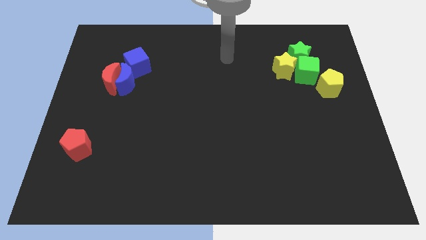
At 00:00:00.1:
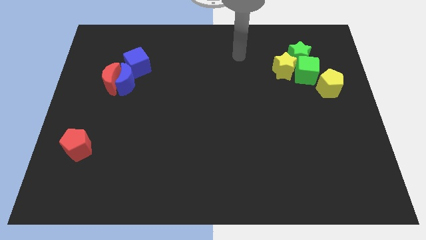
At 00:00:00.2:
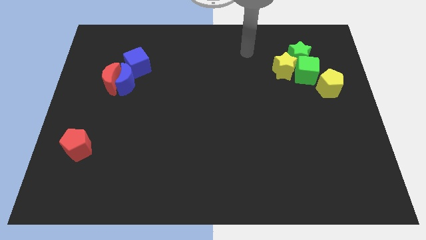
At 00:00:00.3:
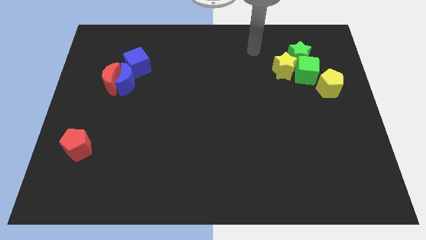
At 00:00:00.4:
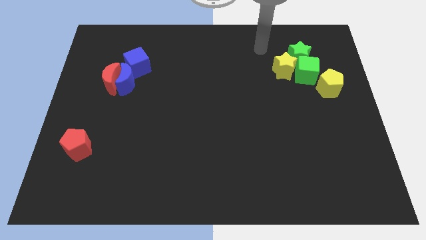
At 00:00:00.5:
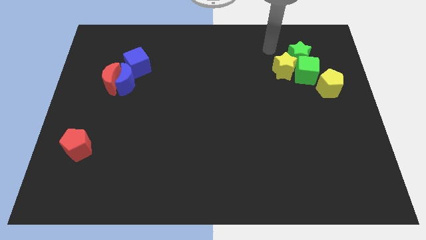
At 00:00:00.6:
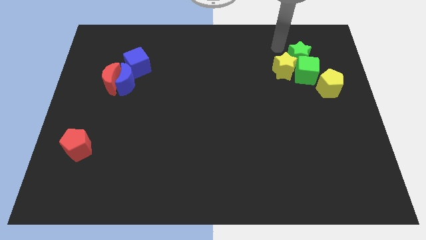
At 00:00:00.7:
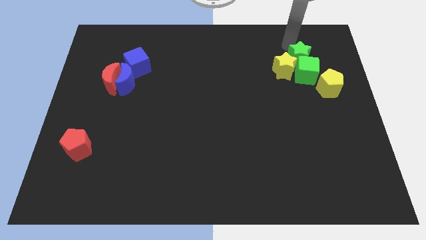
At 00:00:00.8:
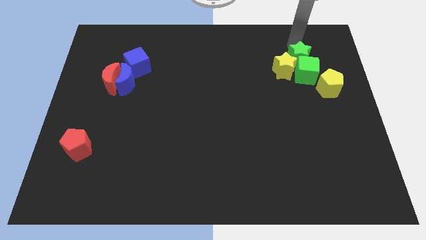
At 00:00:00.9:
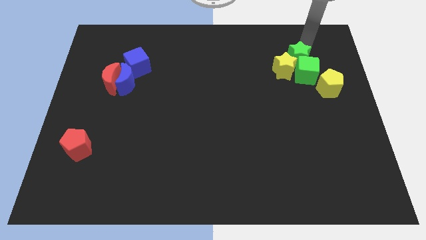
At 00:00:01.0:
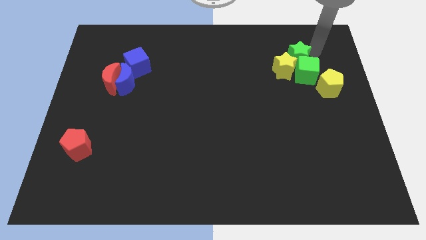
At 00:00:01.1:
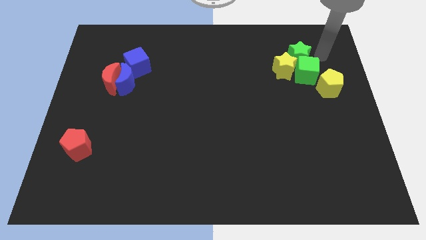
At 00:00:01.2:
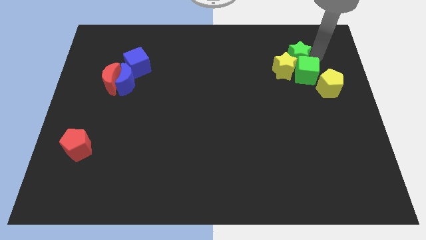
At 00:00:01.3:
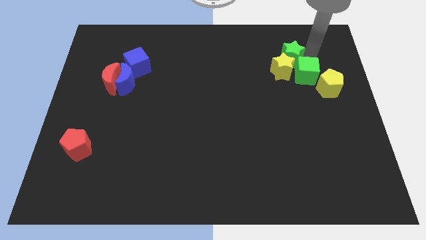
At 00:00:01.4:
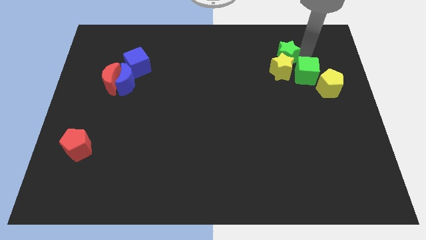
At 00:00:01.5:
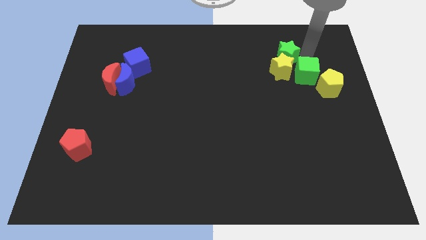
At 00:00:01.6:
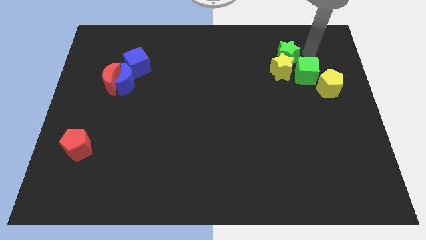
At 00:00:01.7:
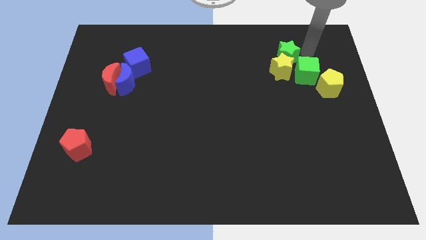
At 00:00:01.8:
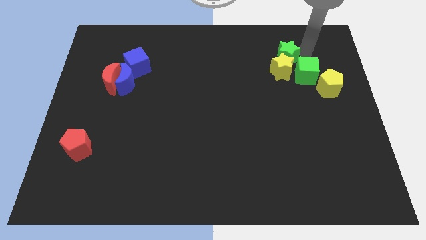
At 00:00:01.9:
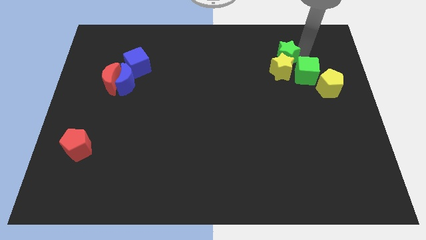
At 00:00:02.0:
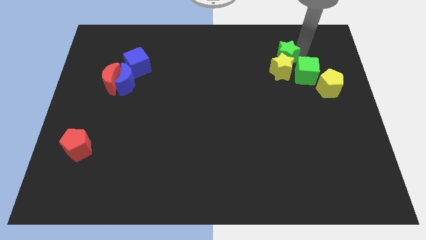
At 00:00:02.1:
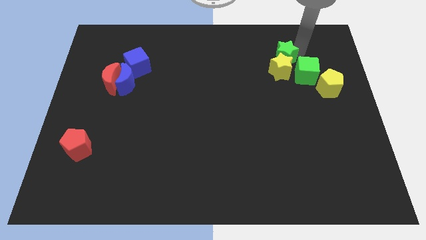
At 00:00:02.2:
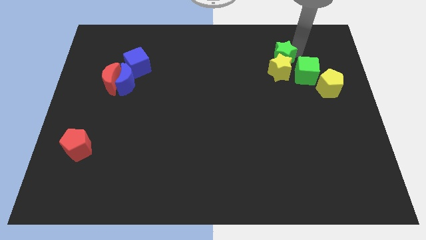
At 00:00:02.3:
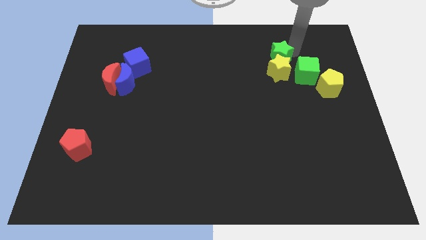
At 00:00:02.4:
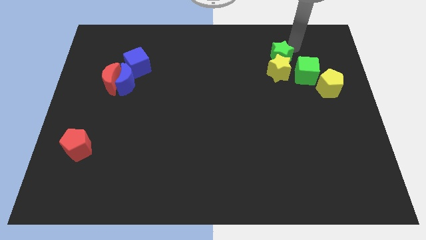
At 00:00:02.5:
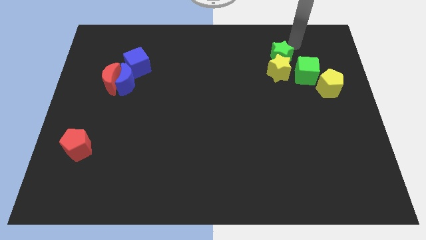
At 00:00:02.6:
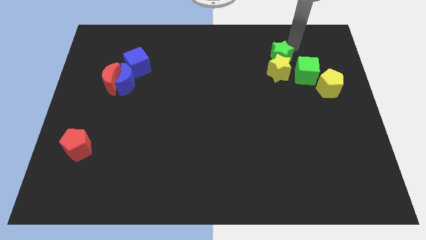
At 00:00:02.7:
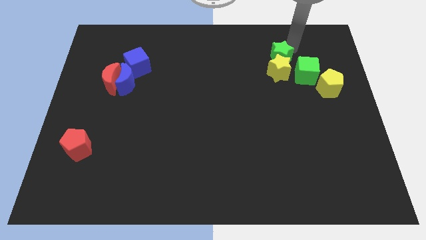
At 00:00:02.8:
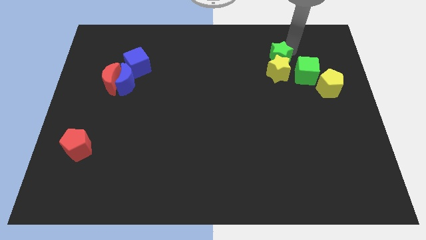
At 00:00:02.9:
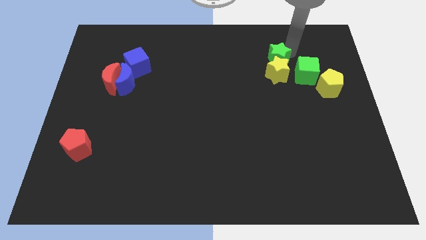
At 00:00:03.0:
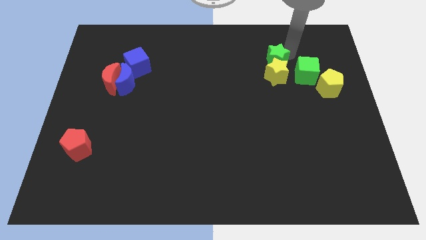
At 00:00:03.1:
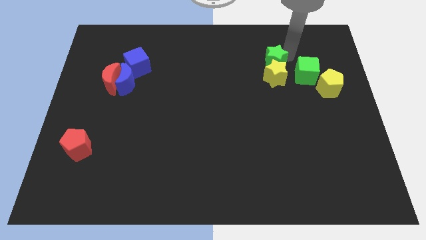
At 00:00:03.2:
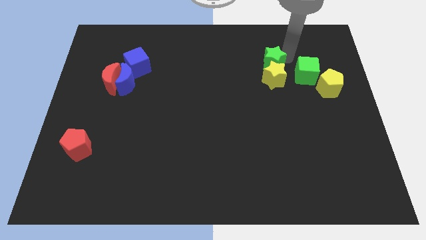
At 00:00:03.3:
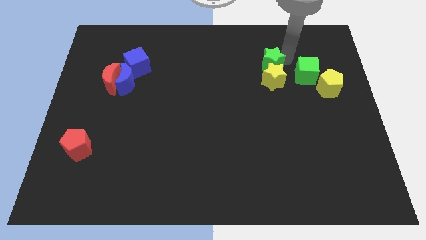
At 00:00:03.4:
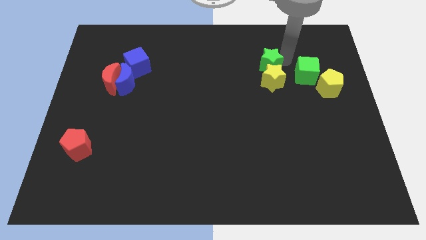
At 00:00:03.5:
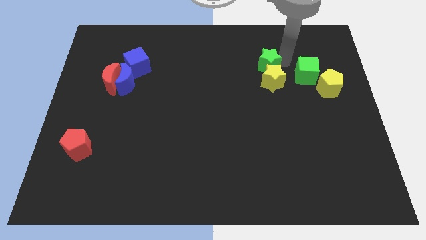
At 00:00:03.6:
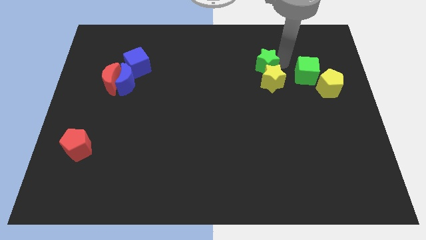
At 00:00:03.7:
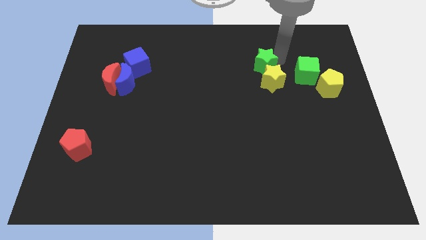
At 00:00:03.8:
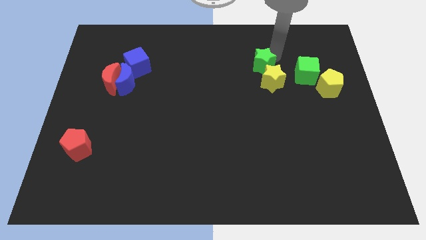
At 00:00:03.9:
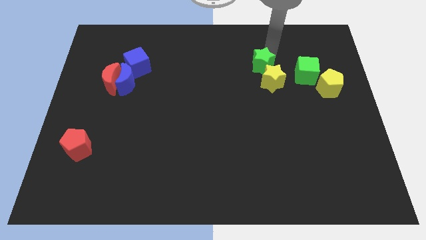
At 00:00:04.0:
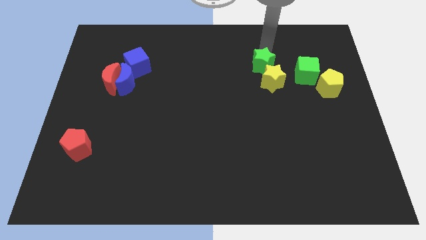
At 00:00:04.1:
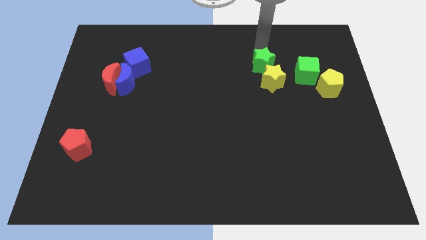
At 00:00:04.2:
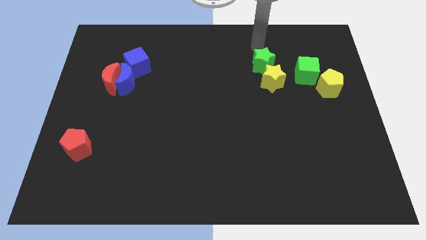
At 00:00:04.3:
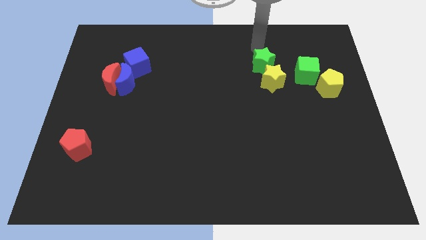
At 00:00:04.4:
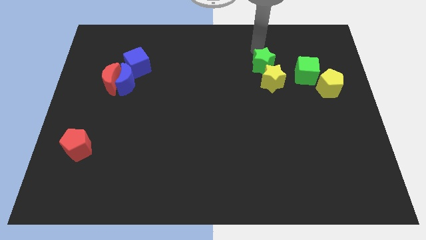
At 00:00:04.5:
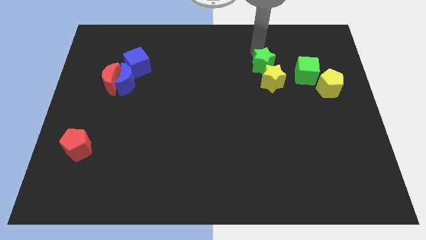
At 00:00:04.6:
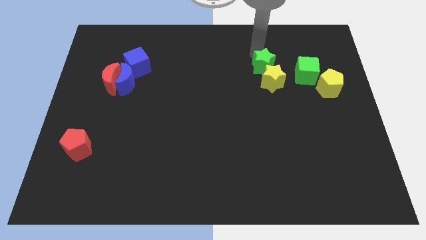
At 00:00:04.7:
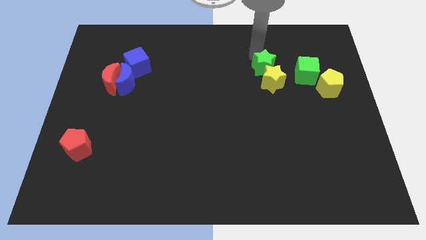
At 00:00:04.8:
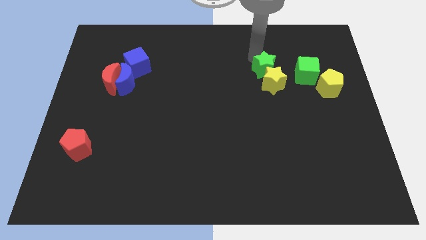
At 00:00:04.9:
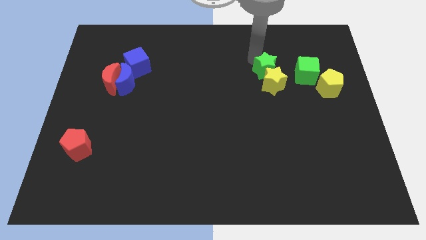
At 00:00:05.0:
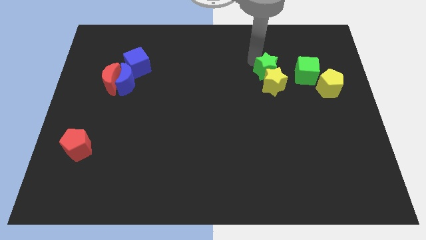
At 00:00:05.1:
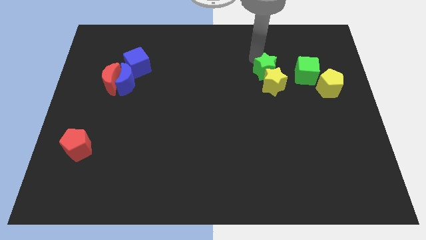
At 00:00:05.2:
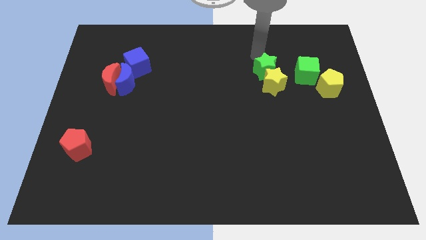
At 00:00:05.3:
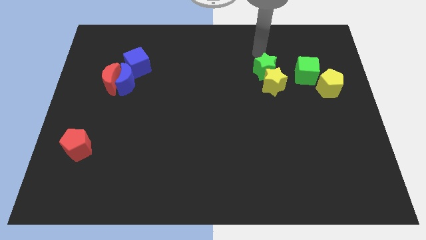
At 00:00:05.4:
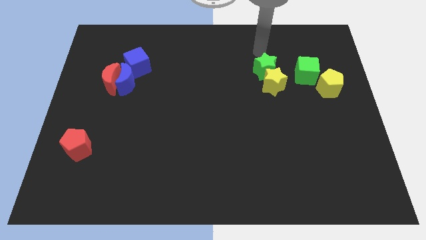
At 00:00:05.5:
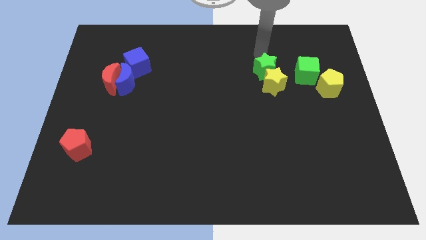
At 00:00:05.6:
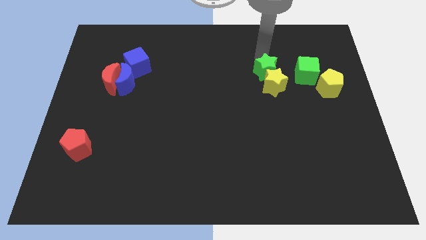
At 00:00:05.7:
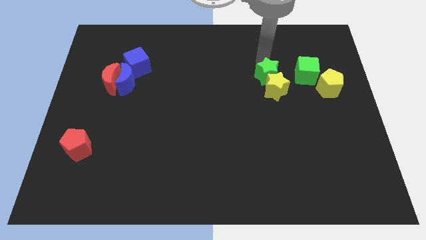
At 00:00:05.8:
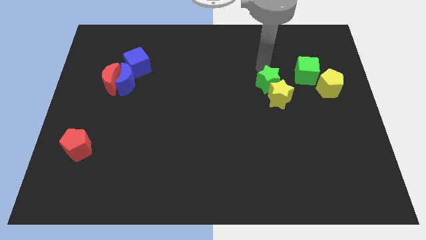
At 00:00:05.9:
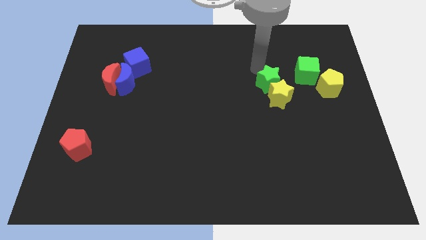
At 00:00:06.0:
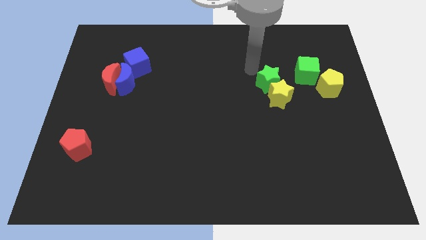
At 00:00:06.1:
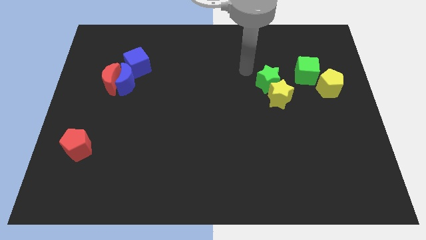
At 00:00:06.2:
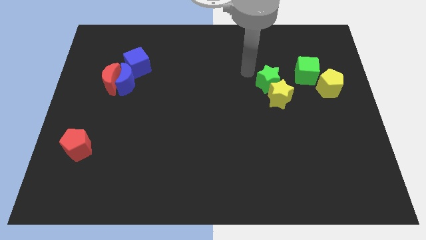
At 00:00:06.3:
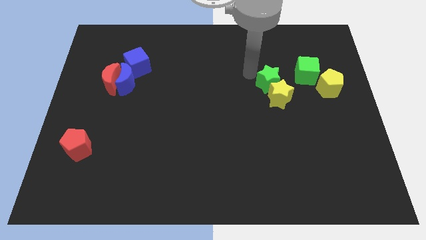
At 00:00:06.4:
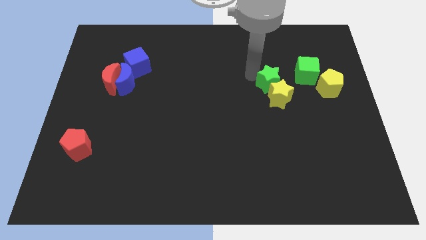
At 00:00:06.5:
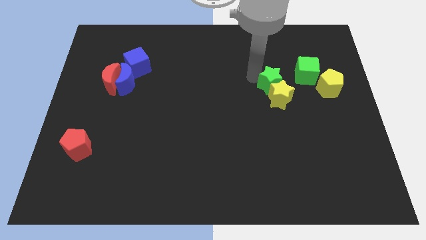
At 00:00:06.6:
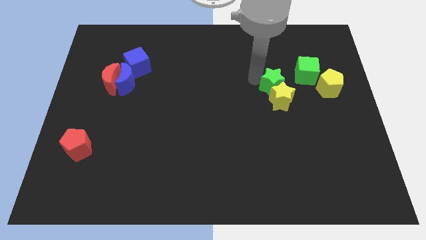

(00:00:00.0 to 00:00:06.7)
push the green star somewhat down

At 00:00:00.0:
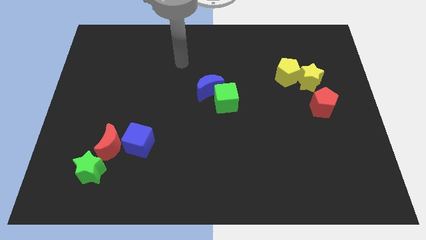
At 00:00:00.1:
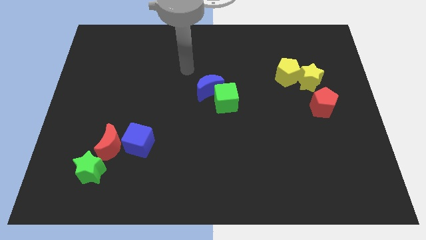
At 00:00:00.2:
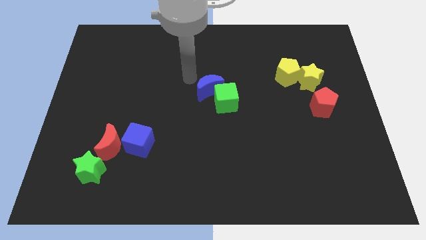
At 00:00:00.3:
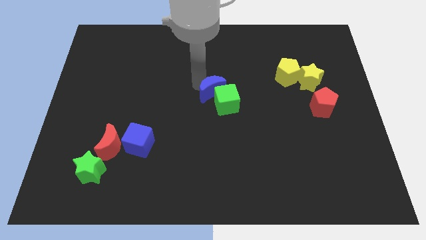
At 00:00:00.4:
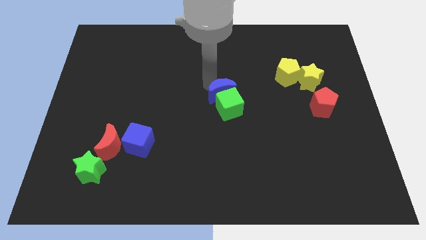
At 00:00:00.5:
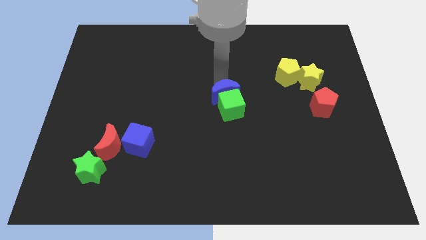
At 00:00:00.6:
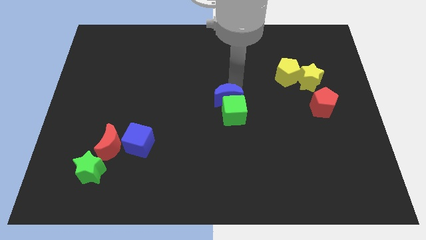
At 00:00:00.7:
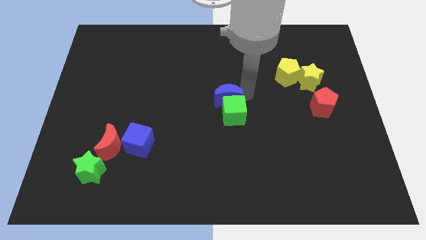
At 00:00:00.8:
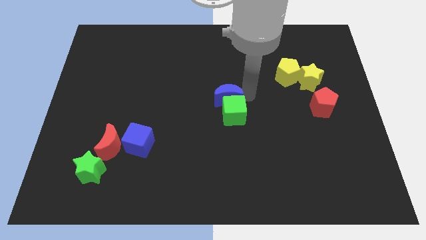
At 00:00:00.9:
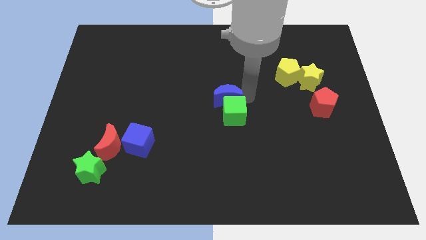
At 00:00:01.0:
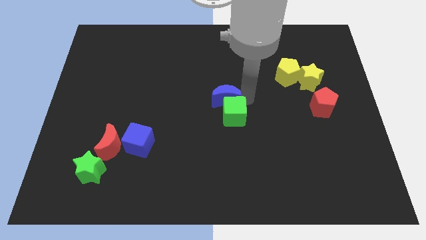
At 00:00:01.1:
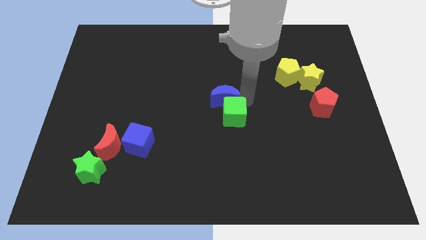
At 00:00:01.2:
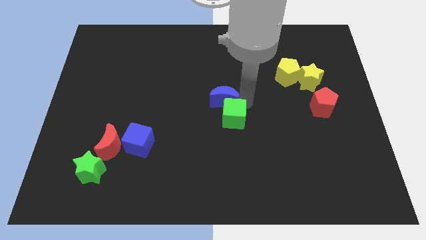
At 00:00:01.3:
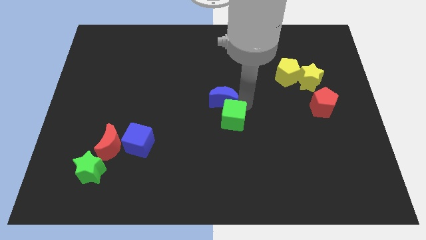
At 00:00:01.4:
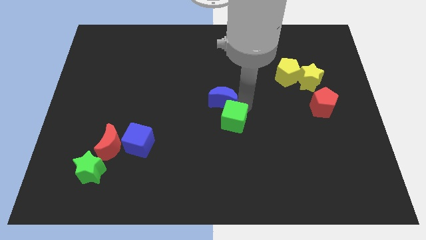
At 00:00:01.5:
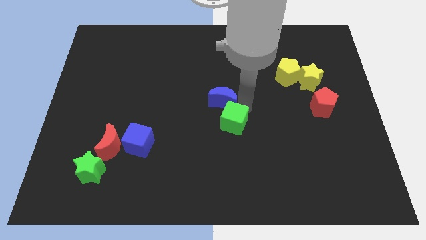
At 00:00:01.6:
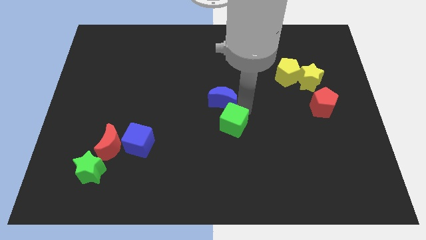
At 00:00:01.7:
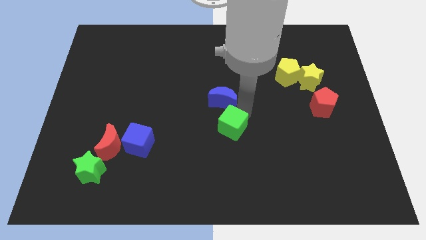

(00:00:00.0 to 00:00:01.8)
move the green cube somewhat down
